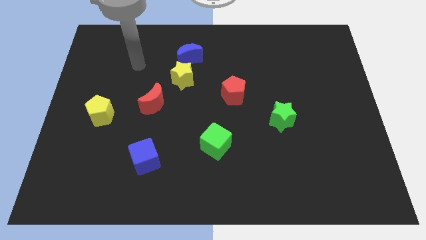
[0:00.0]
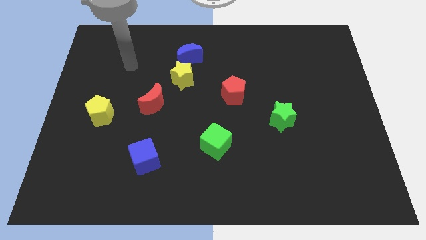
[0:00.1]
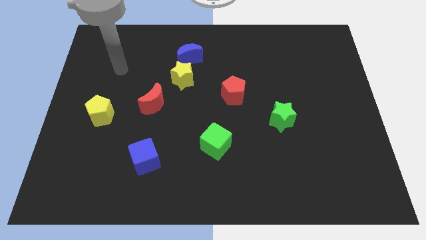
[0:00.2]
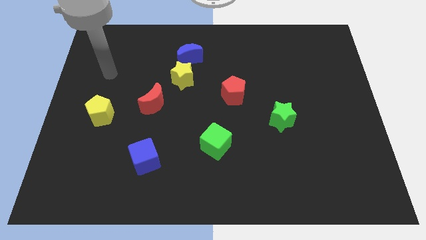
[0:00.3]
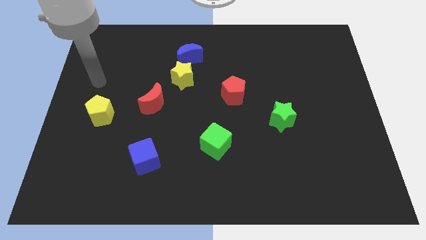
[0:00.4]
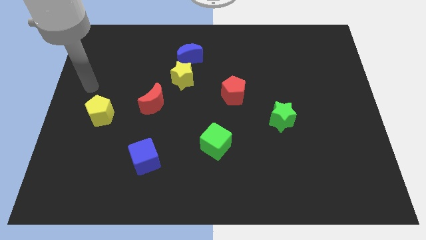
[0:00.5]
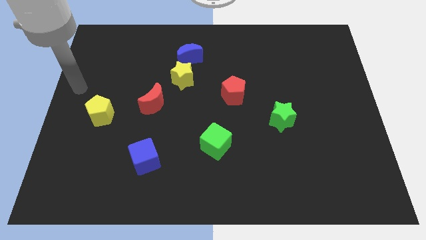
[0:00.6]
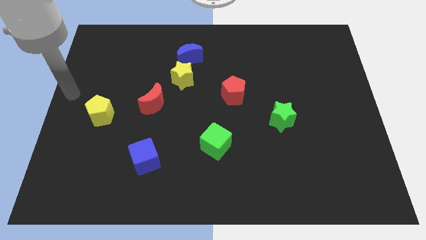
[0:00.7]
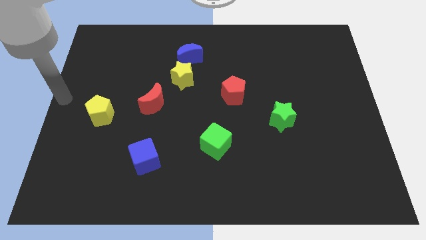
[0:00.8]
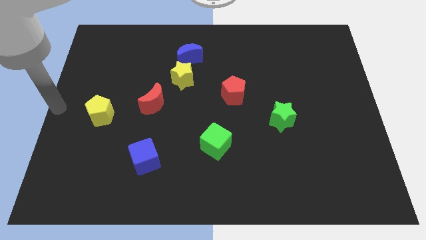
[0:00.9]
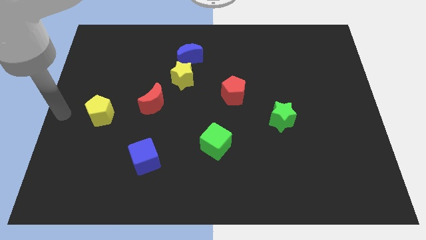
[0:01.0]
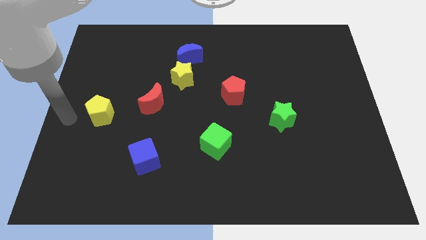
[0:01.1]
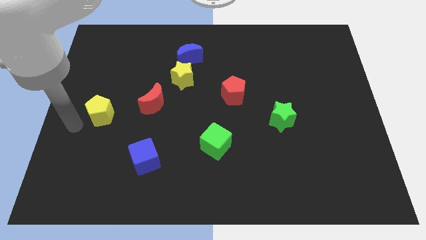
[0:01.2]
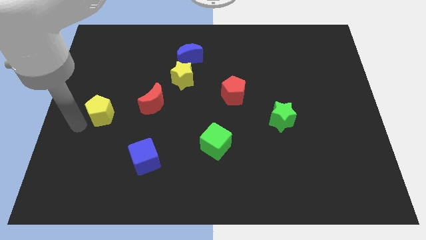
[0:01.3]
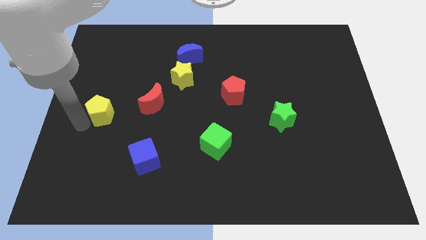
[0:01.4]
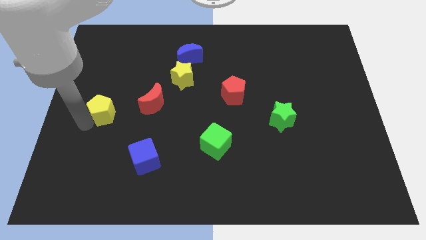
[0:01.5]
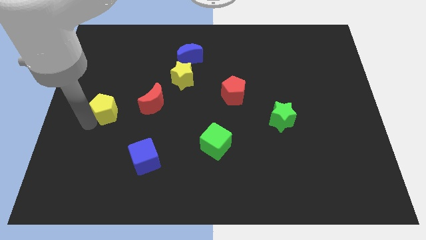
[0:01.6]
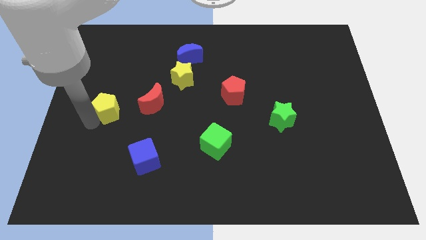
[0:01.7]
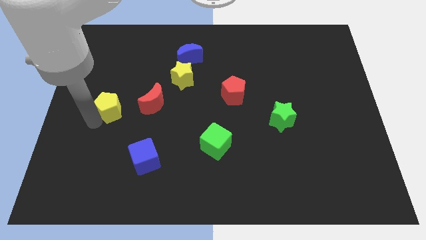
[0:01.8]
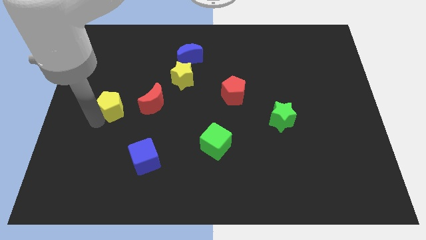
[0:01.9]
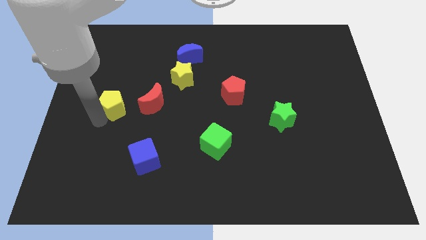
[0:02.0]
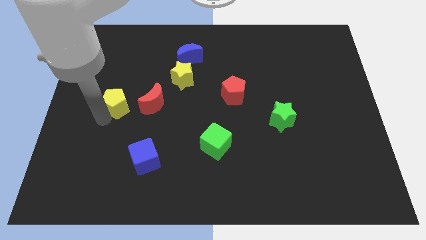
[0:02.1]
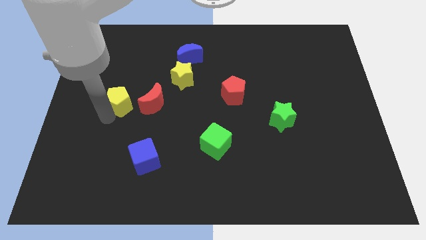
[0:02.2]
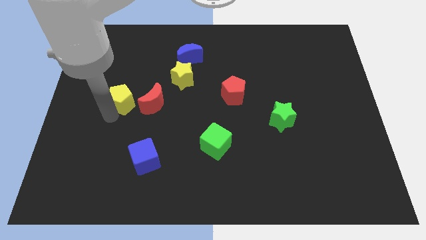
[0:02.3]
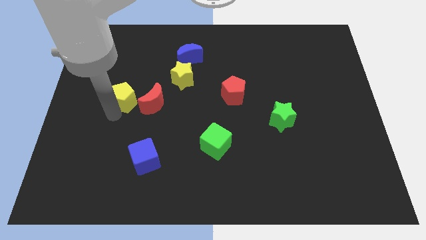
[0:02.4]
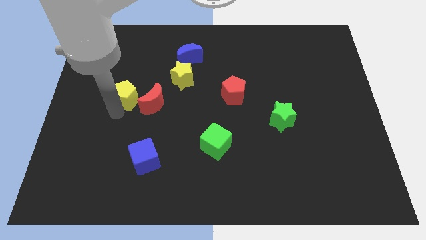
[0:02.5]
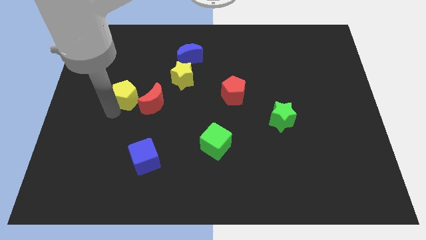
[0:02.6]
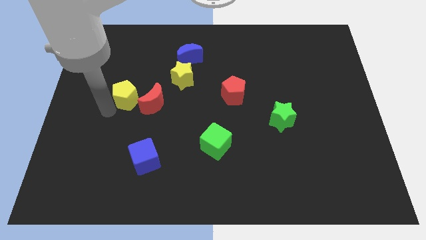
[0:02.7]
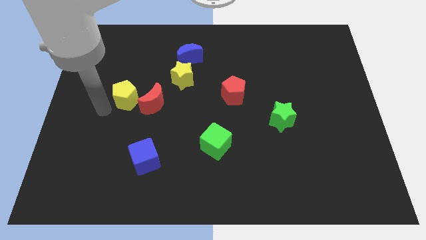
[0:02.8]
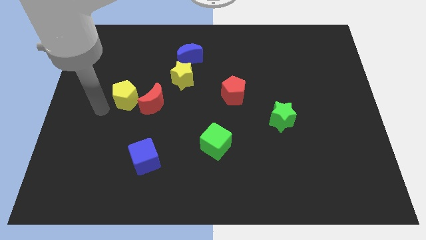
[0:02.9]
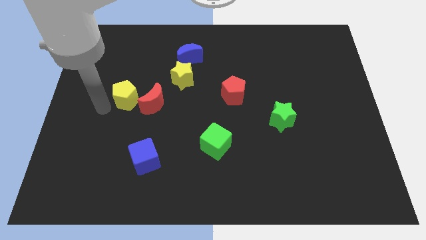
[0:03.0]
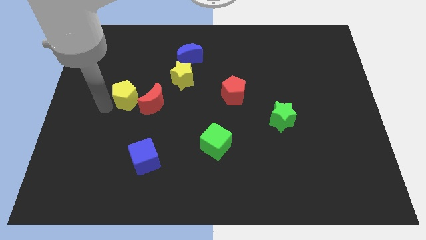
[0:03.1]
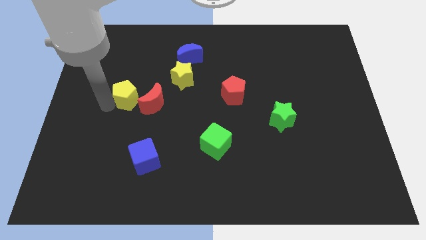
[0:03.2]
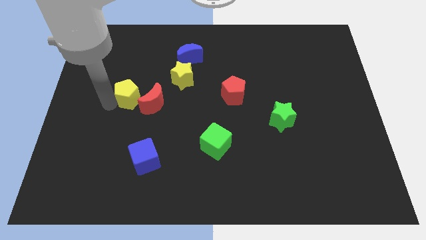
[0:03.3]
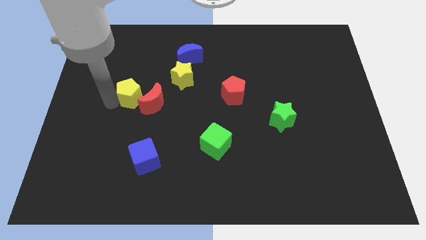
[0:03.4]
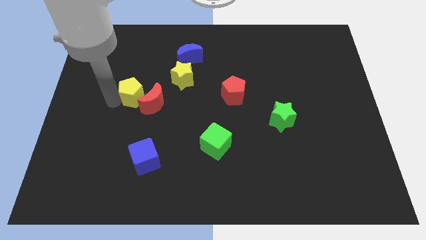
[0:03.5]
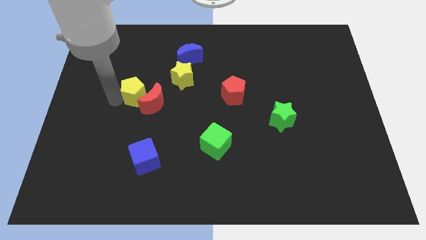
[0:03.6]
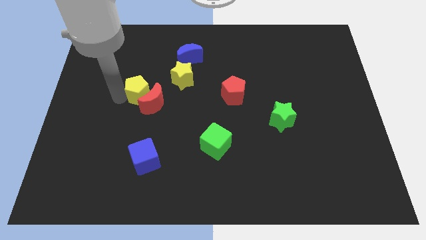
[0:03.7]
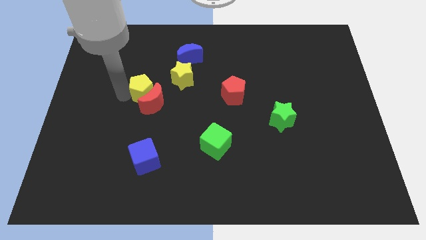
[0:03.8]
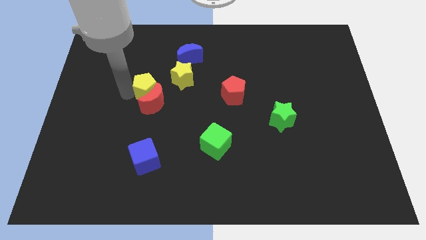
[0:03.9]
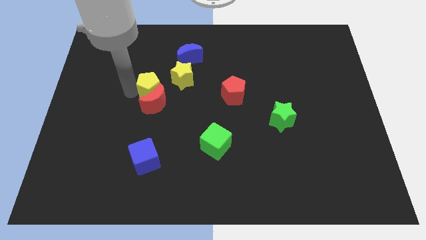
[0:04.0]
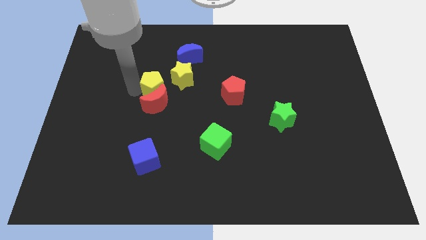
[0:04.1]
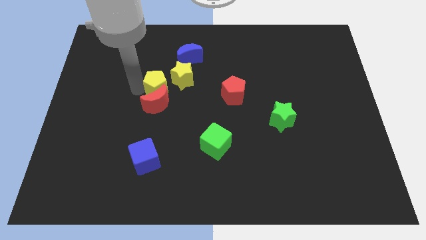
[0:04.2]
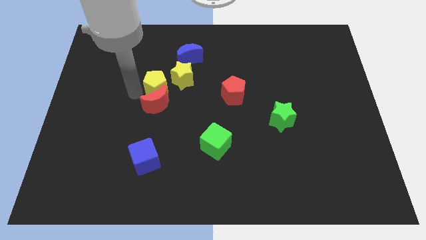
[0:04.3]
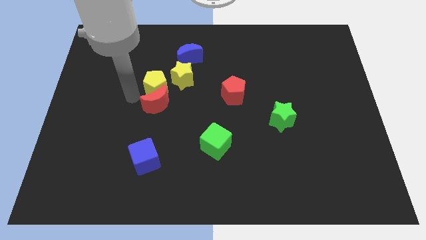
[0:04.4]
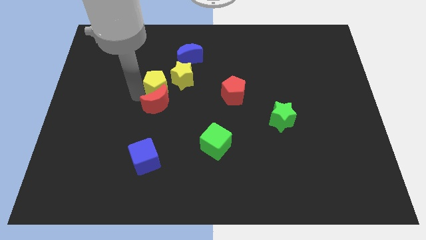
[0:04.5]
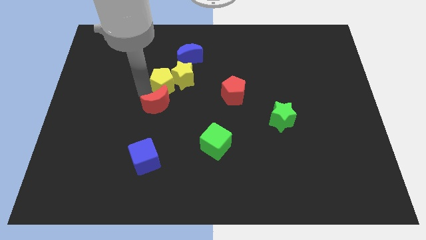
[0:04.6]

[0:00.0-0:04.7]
put the yellow pentagon towards the yellow star

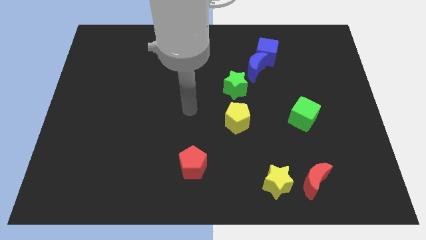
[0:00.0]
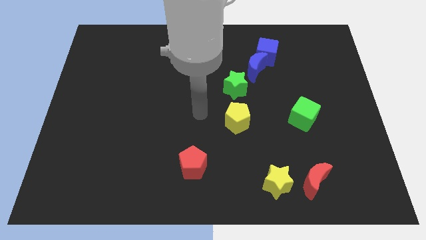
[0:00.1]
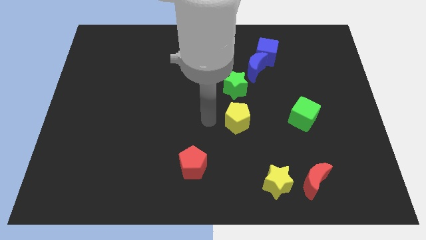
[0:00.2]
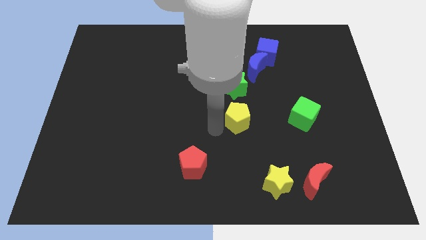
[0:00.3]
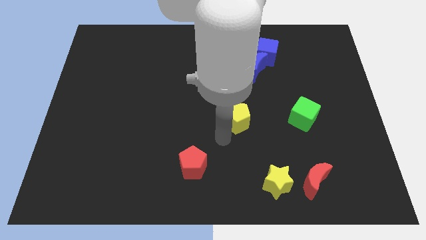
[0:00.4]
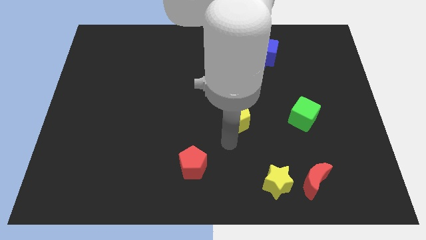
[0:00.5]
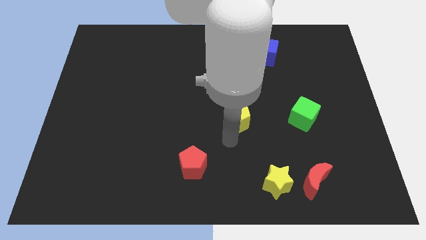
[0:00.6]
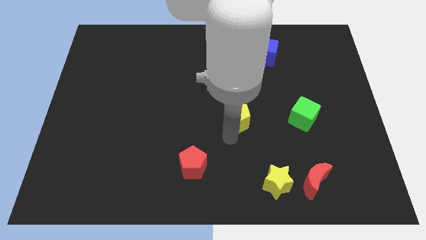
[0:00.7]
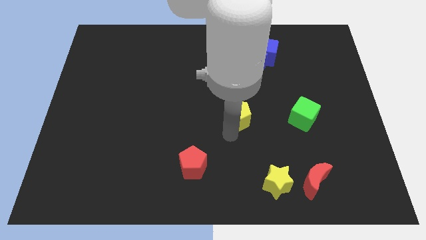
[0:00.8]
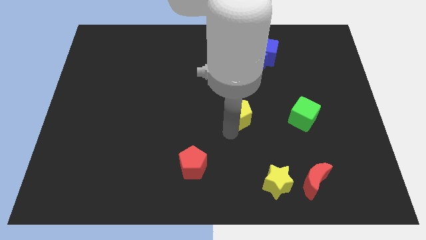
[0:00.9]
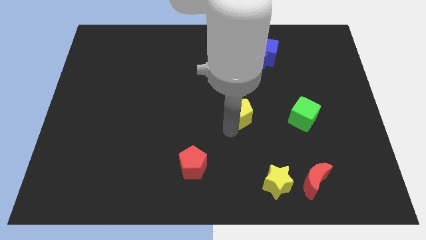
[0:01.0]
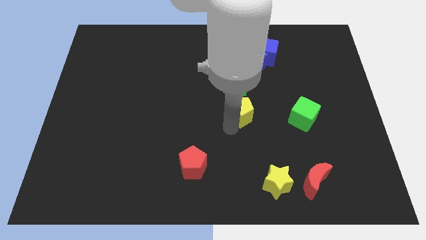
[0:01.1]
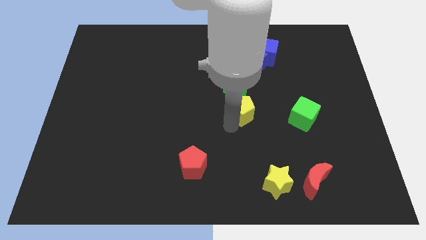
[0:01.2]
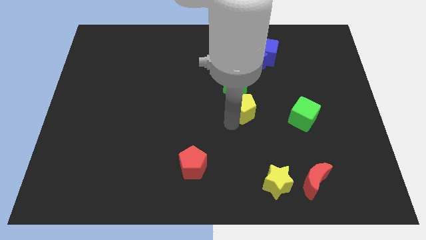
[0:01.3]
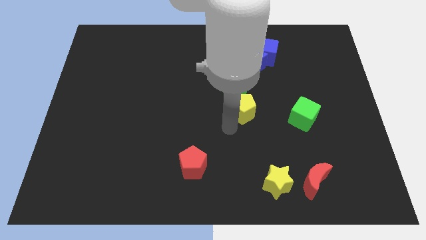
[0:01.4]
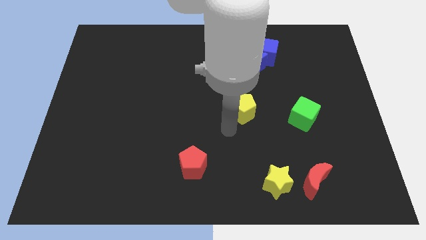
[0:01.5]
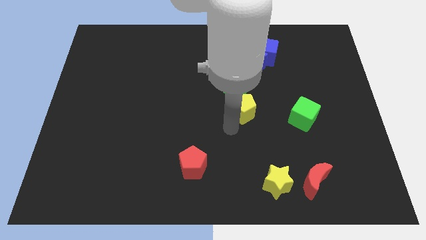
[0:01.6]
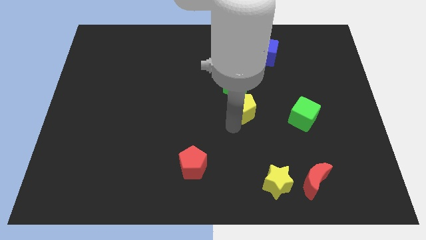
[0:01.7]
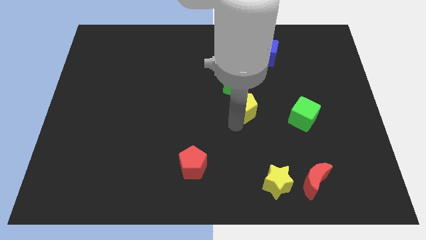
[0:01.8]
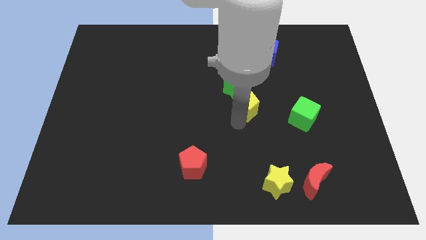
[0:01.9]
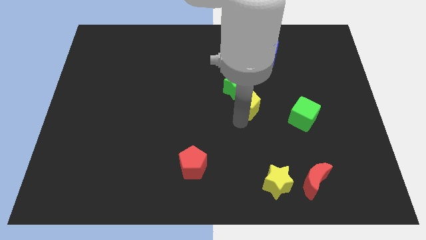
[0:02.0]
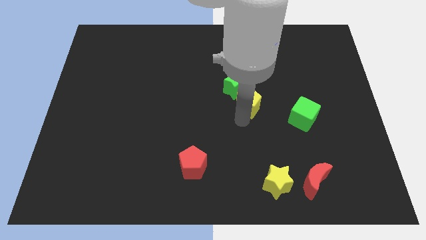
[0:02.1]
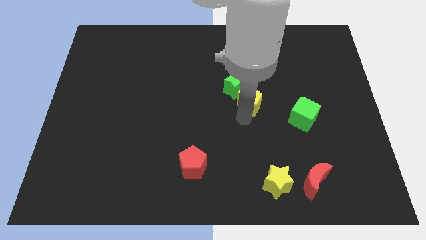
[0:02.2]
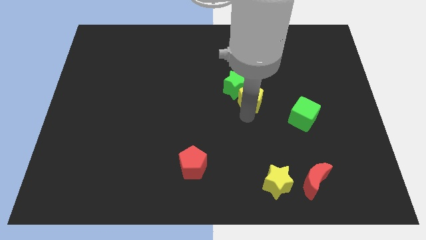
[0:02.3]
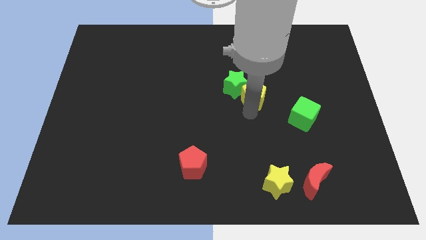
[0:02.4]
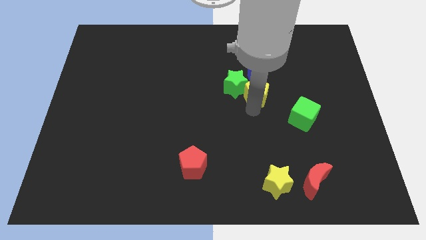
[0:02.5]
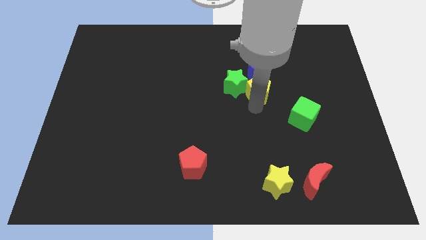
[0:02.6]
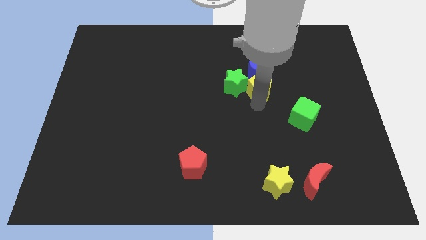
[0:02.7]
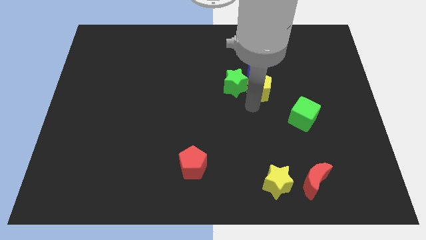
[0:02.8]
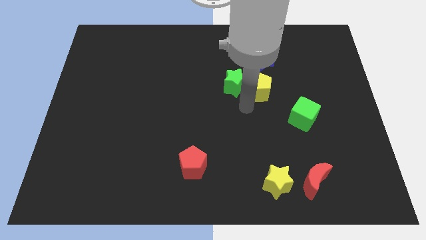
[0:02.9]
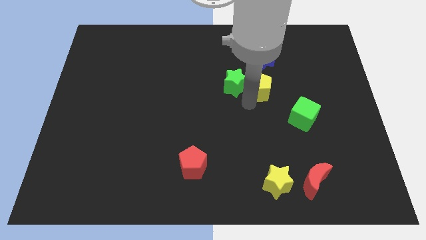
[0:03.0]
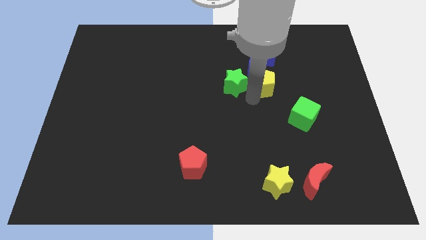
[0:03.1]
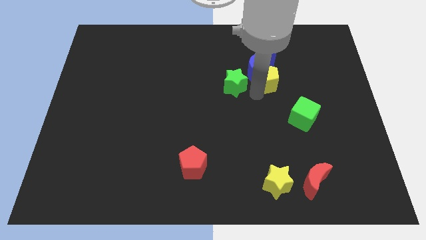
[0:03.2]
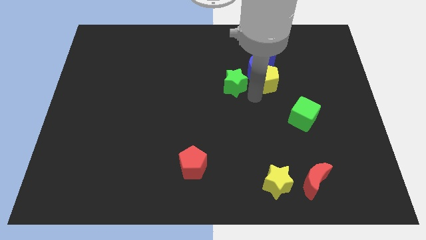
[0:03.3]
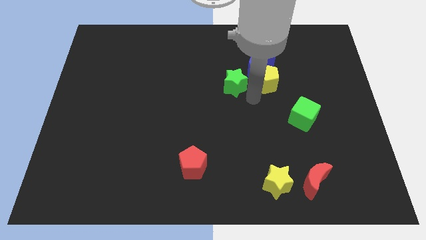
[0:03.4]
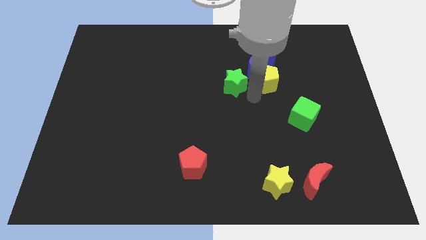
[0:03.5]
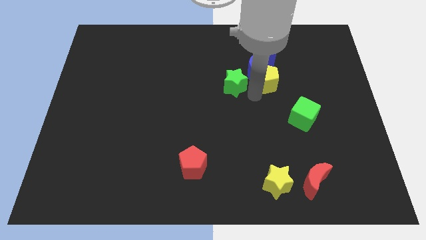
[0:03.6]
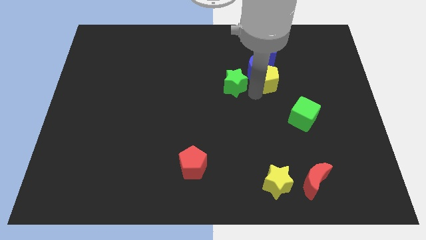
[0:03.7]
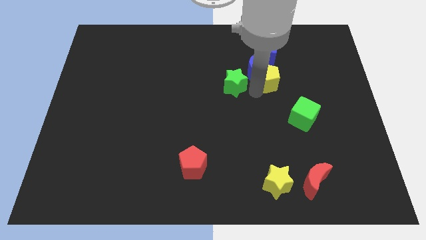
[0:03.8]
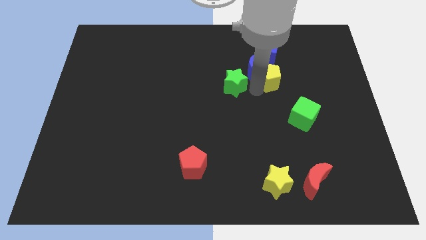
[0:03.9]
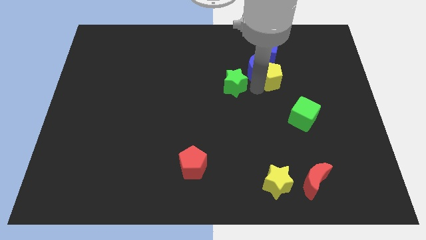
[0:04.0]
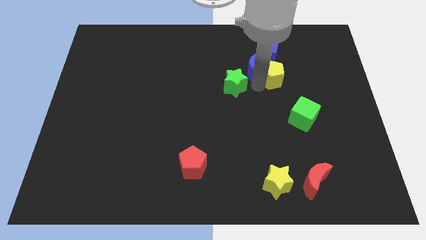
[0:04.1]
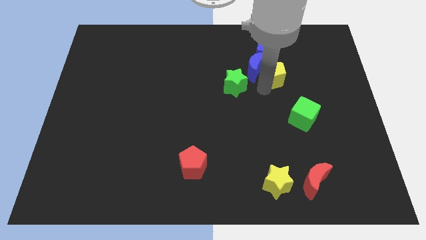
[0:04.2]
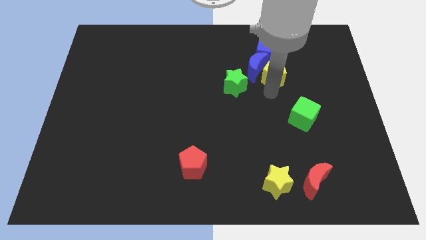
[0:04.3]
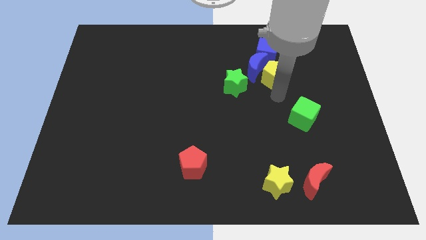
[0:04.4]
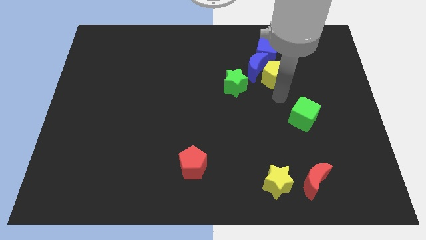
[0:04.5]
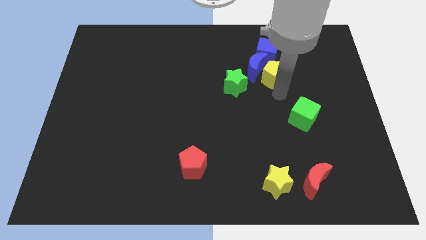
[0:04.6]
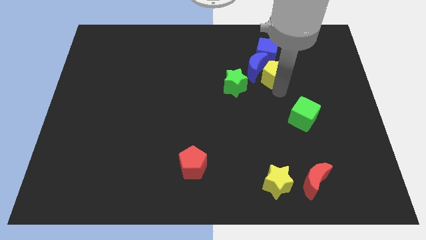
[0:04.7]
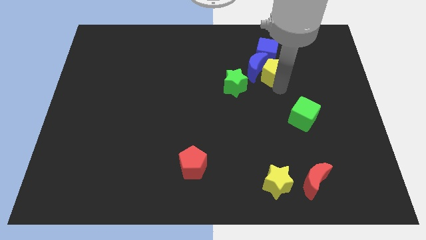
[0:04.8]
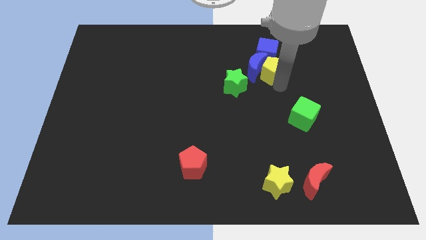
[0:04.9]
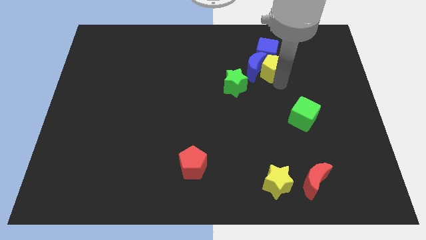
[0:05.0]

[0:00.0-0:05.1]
slide the yellow pentagon next to the blue cube
